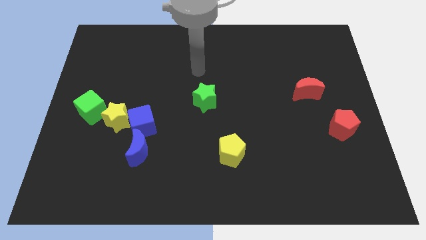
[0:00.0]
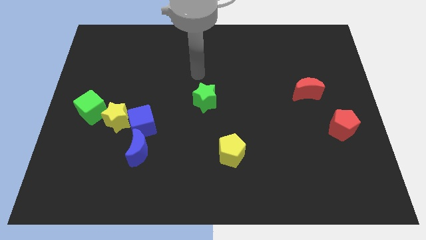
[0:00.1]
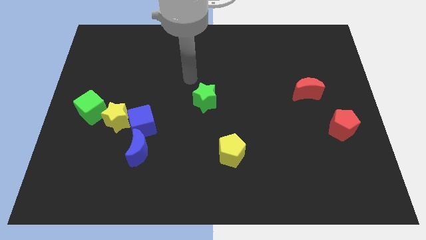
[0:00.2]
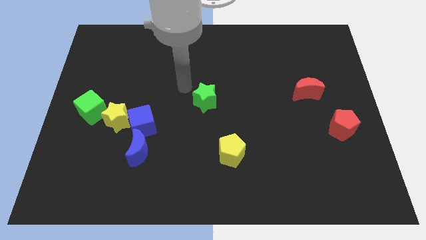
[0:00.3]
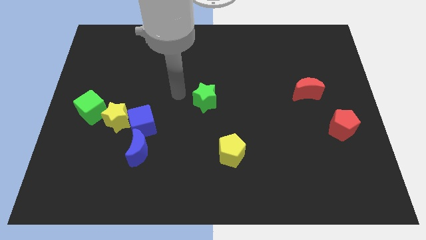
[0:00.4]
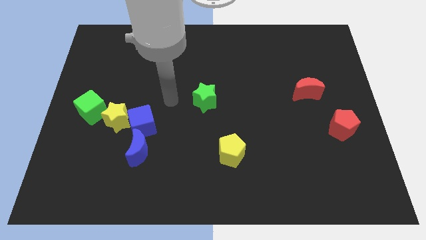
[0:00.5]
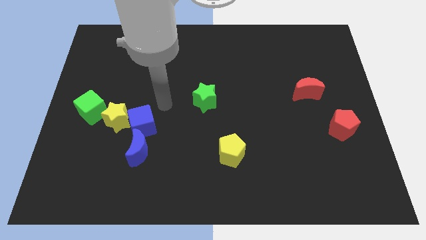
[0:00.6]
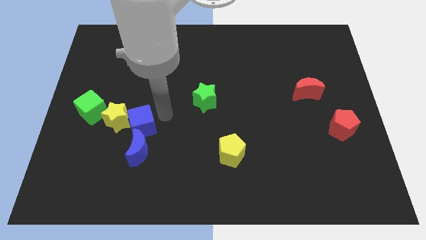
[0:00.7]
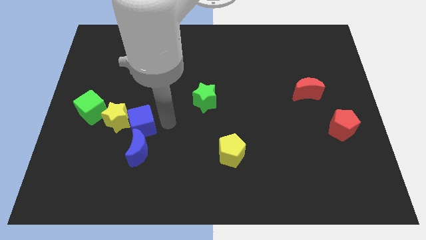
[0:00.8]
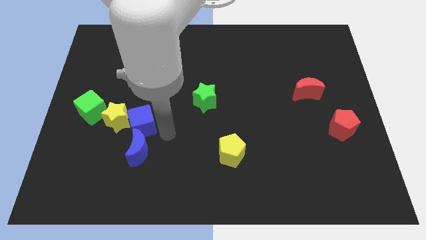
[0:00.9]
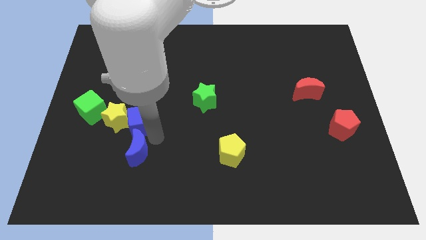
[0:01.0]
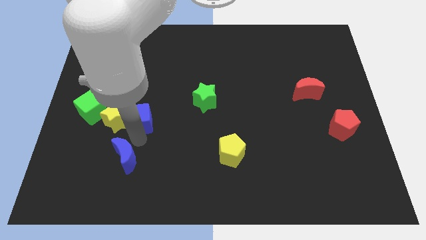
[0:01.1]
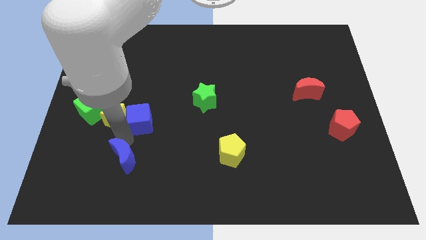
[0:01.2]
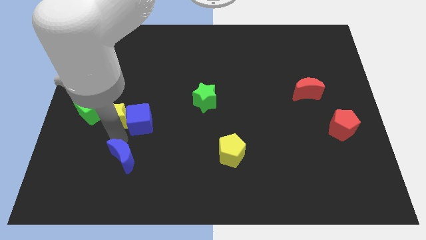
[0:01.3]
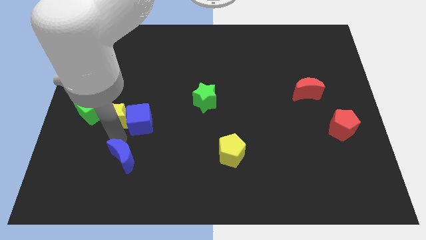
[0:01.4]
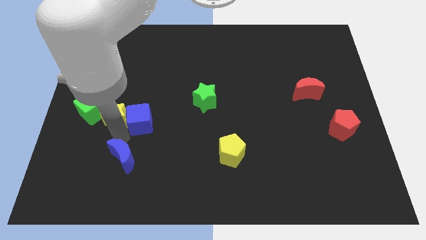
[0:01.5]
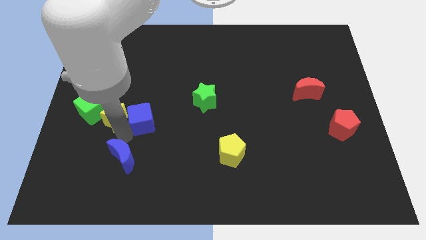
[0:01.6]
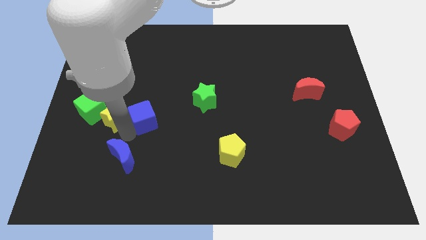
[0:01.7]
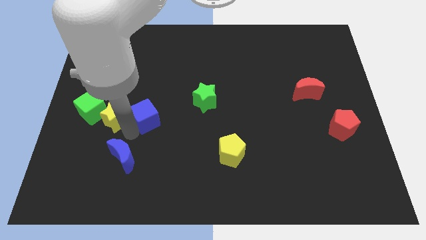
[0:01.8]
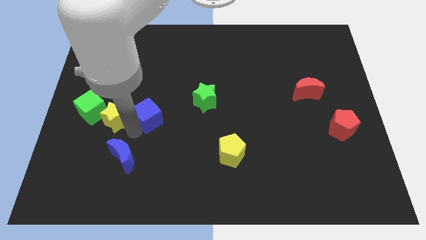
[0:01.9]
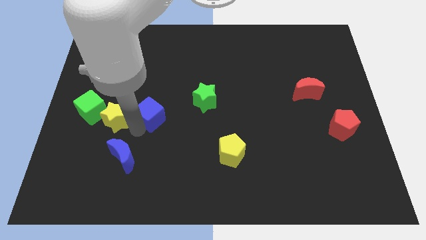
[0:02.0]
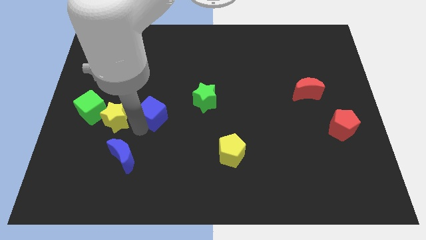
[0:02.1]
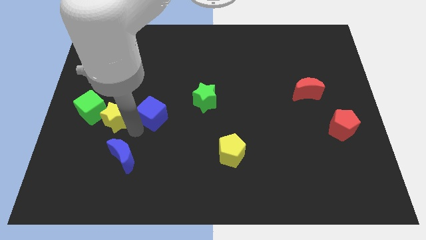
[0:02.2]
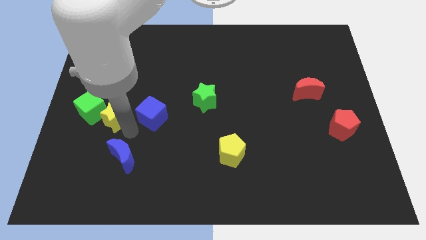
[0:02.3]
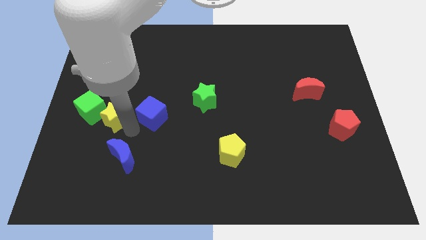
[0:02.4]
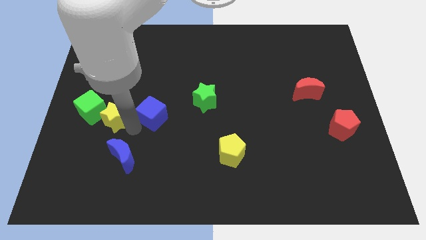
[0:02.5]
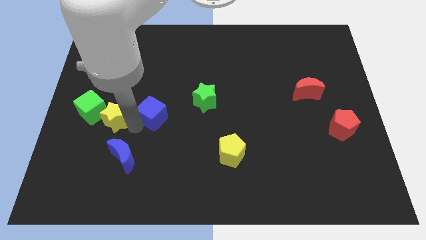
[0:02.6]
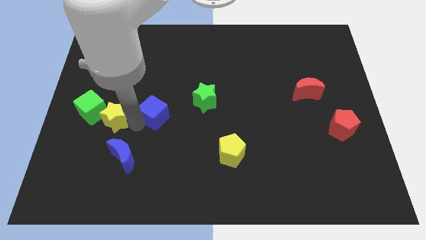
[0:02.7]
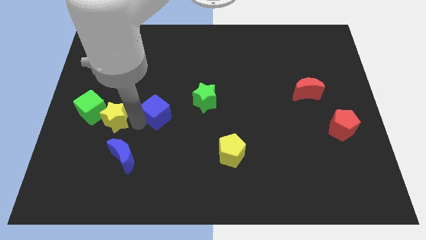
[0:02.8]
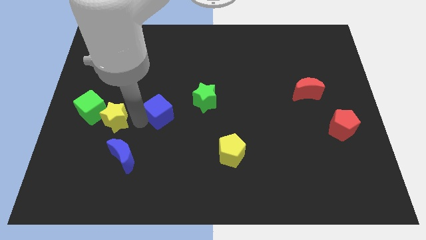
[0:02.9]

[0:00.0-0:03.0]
separate the blue cube from the yellow star and blue moon

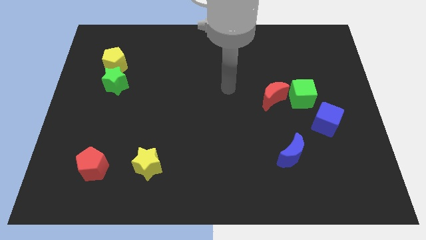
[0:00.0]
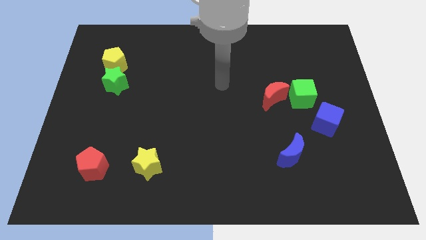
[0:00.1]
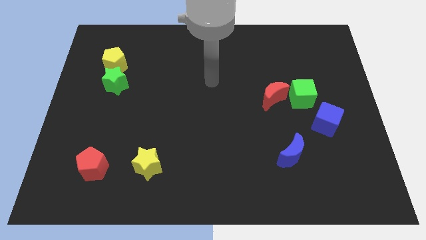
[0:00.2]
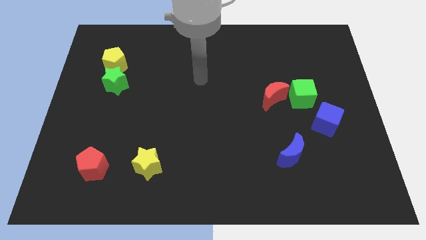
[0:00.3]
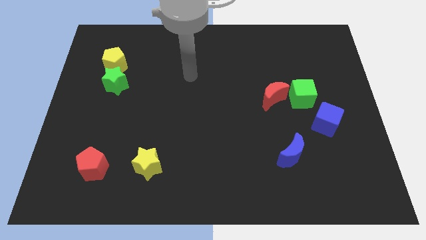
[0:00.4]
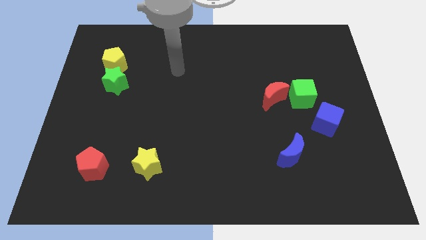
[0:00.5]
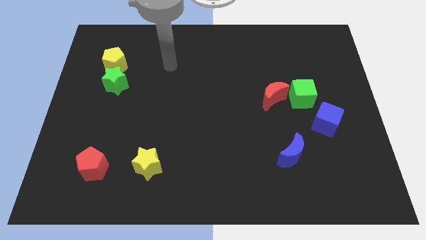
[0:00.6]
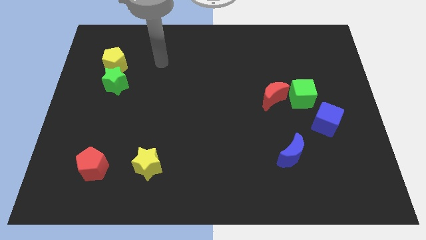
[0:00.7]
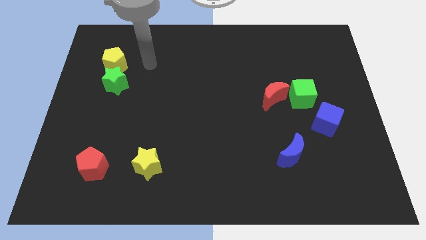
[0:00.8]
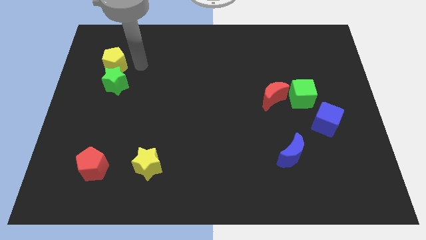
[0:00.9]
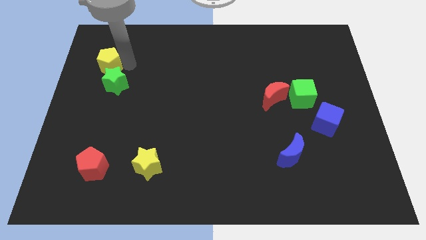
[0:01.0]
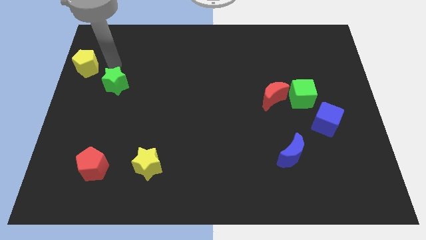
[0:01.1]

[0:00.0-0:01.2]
move the green star away from the yellow pentagon

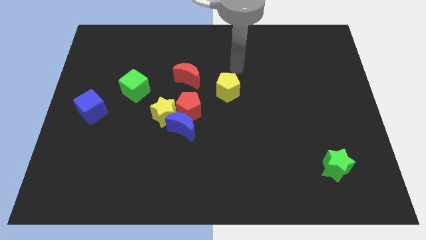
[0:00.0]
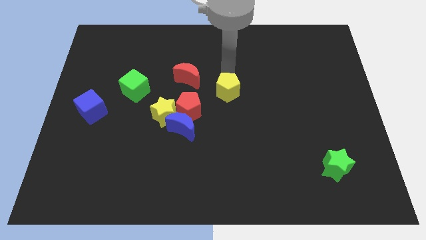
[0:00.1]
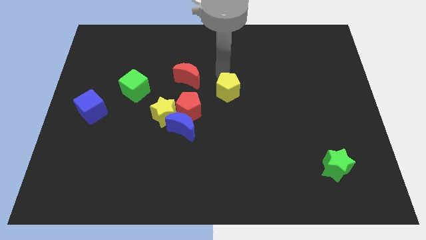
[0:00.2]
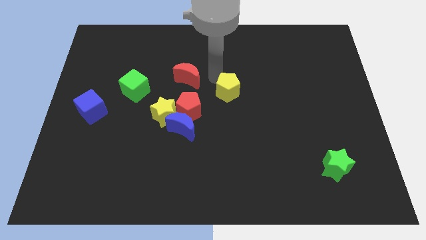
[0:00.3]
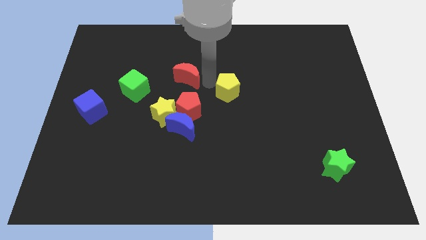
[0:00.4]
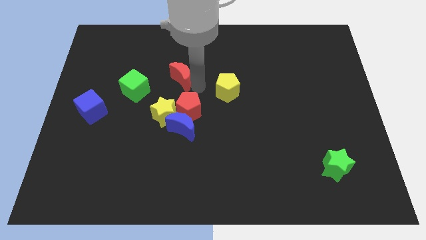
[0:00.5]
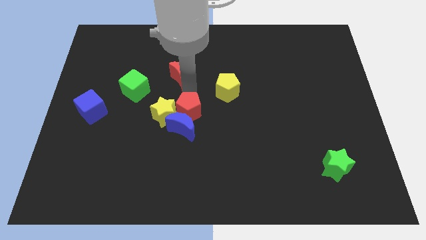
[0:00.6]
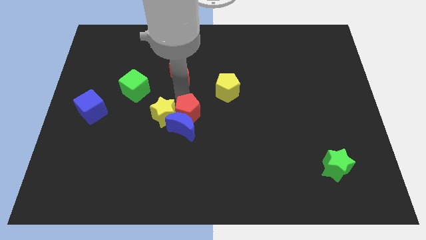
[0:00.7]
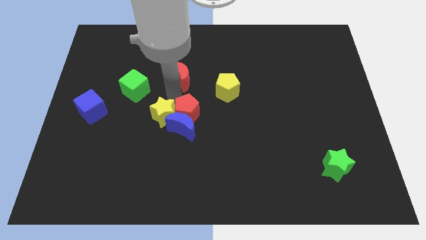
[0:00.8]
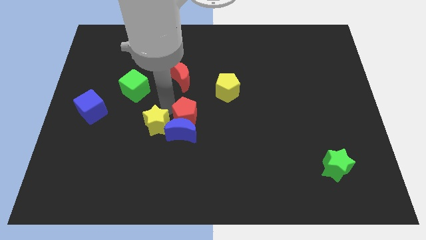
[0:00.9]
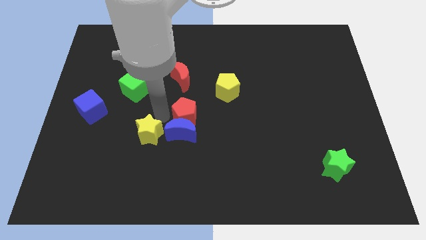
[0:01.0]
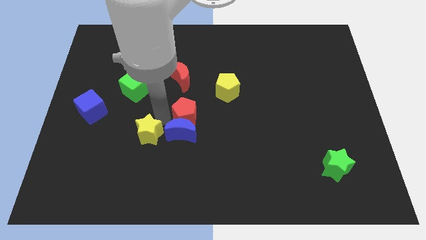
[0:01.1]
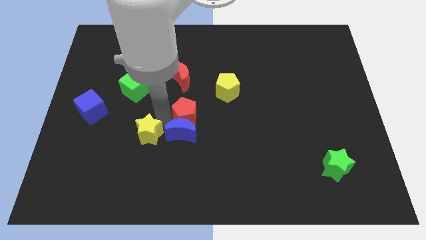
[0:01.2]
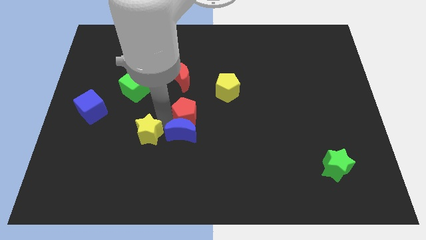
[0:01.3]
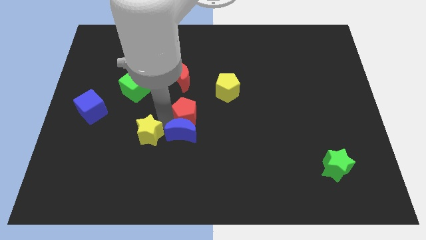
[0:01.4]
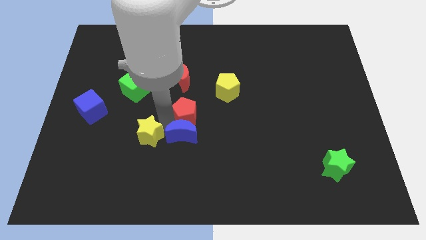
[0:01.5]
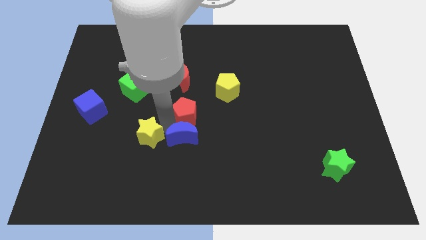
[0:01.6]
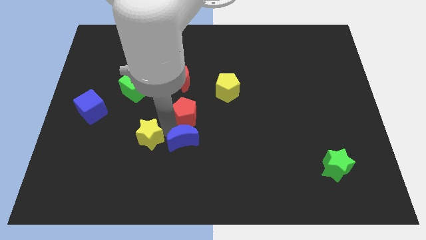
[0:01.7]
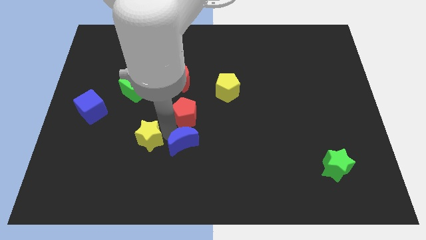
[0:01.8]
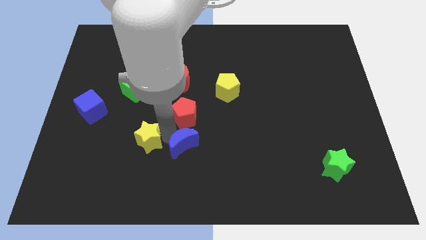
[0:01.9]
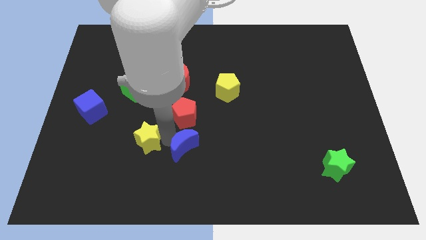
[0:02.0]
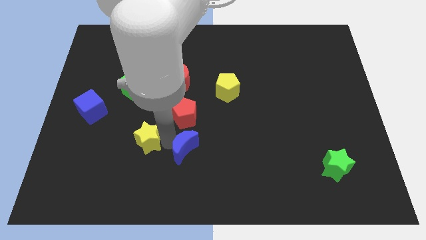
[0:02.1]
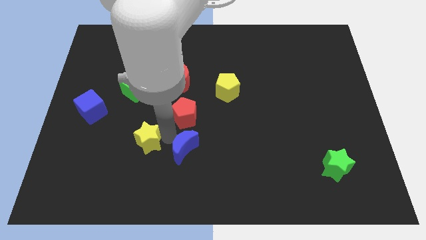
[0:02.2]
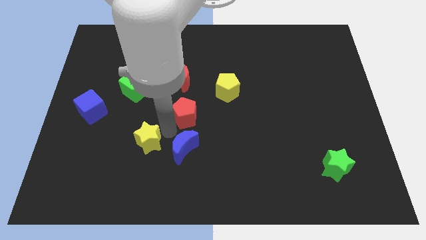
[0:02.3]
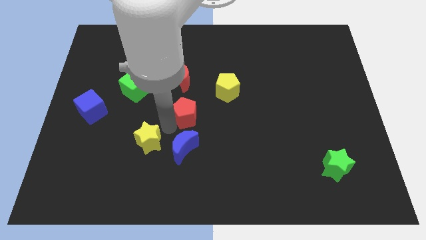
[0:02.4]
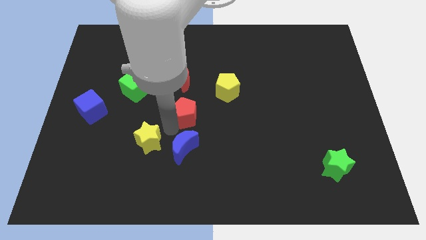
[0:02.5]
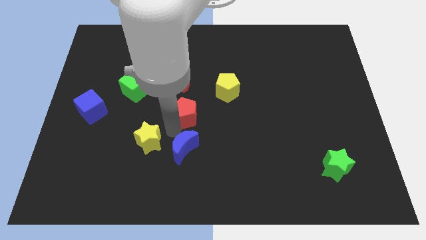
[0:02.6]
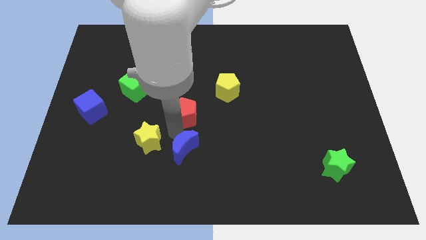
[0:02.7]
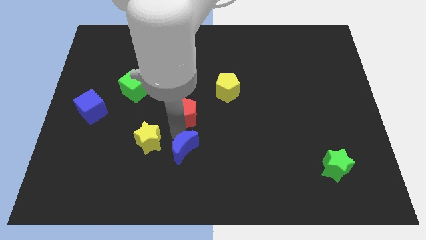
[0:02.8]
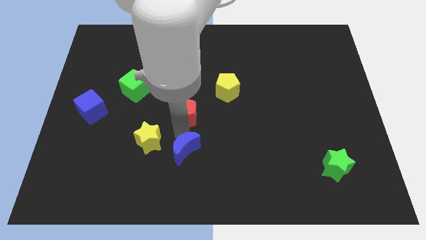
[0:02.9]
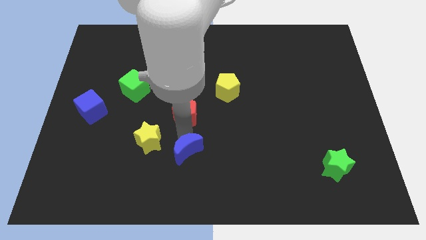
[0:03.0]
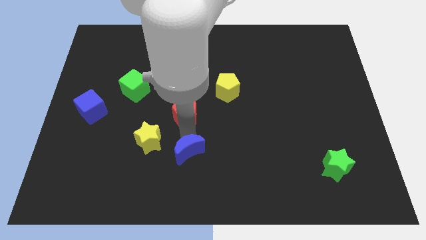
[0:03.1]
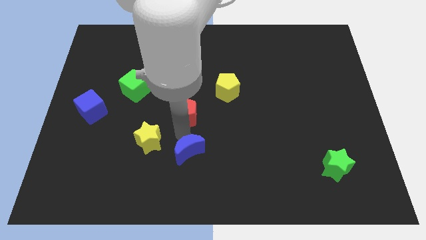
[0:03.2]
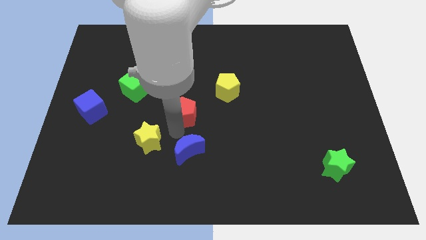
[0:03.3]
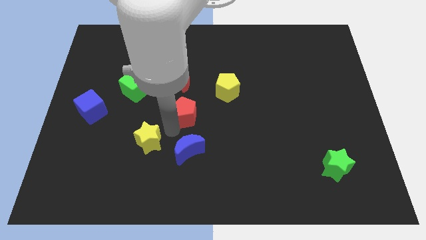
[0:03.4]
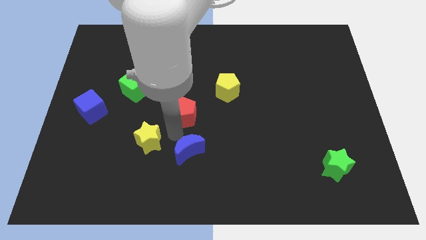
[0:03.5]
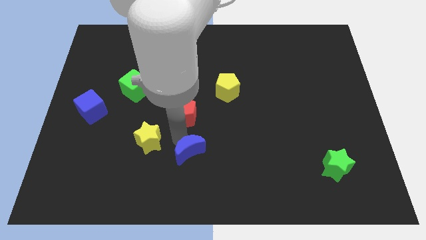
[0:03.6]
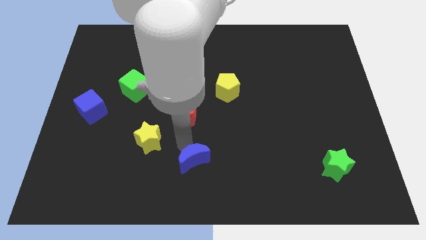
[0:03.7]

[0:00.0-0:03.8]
move the blue moon away from the red pentagon and yellow star

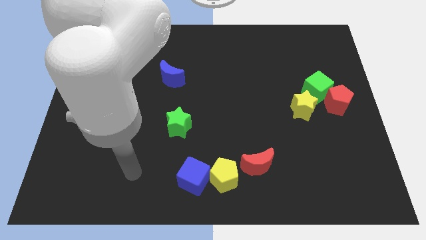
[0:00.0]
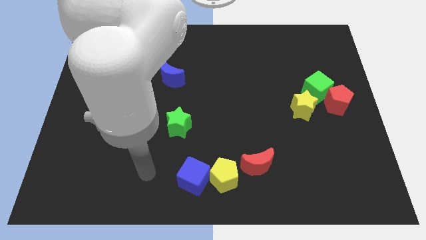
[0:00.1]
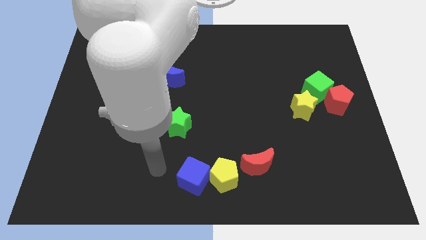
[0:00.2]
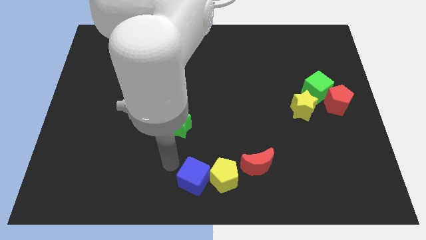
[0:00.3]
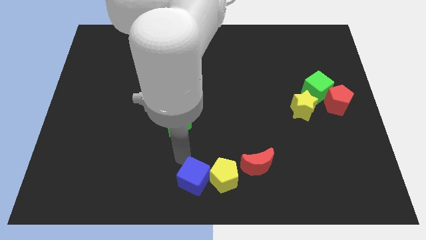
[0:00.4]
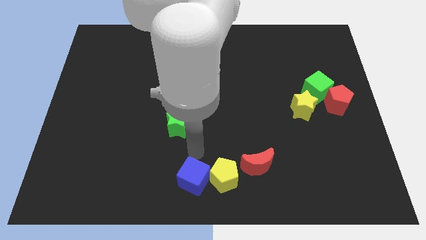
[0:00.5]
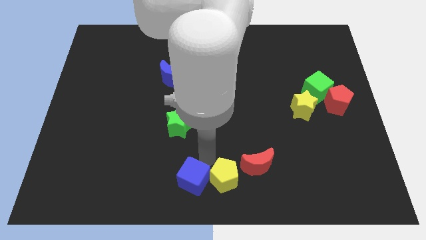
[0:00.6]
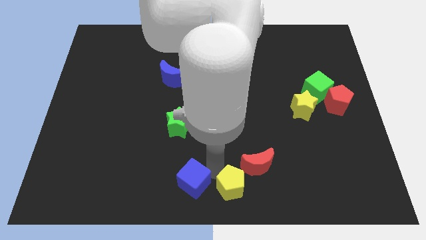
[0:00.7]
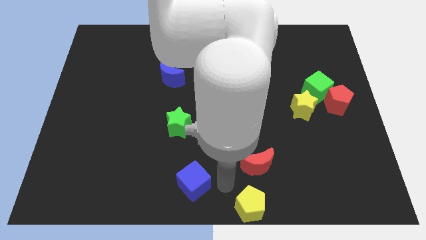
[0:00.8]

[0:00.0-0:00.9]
separate the blue cube from the yellow pentagon

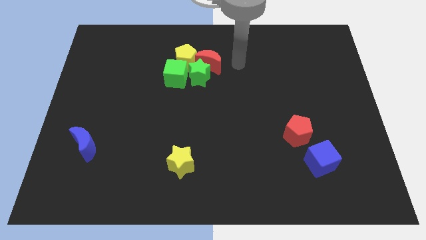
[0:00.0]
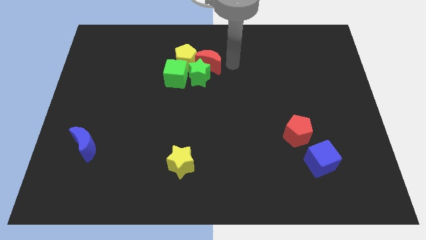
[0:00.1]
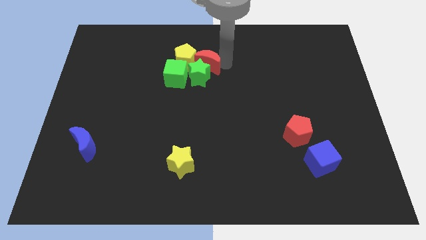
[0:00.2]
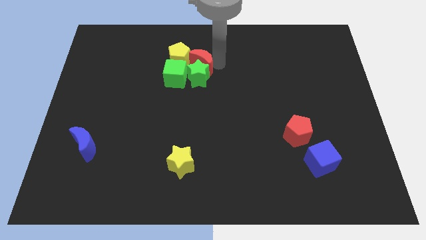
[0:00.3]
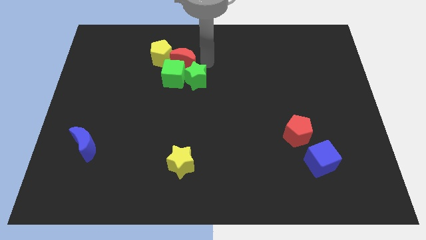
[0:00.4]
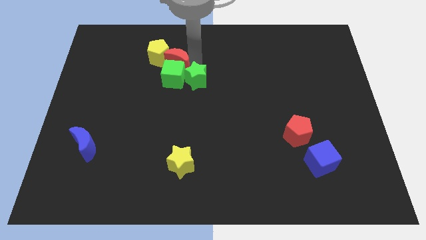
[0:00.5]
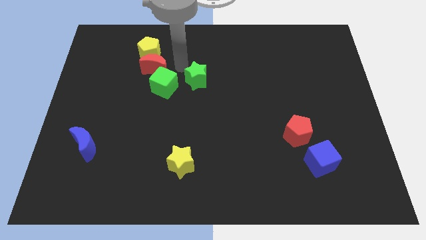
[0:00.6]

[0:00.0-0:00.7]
move the green star away from the group of blocks
